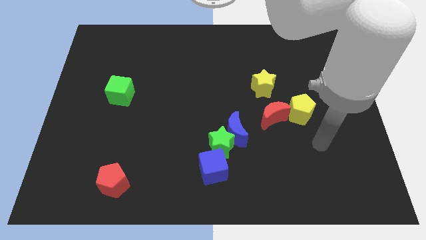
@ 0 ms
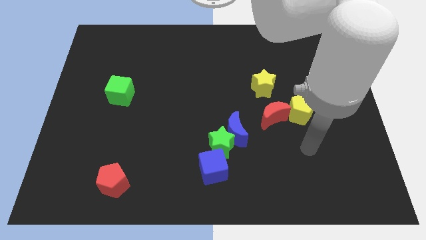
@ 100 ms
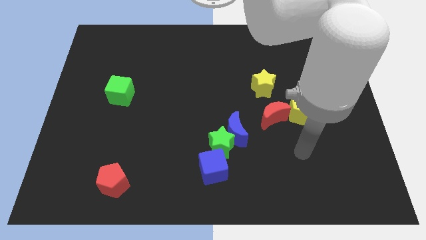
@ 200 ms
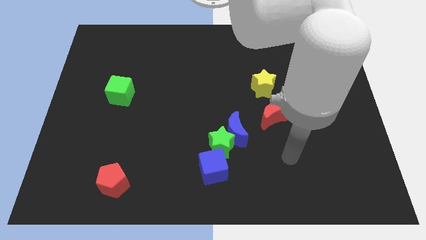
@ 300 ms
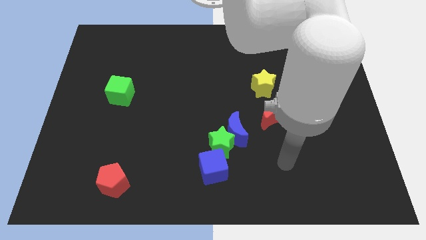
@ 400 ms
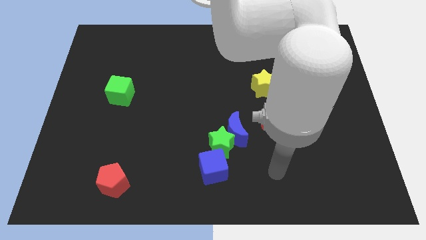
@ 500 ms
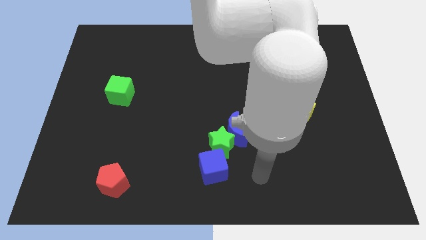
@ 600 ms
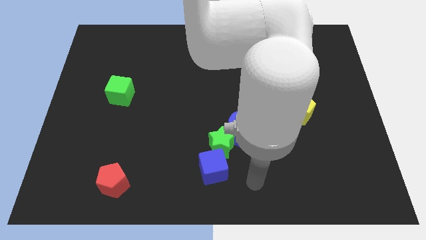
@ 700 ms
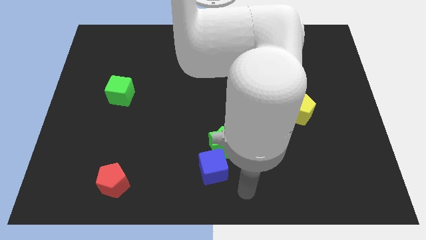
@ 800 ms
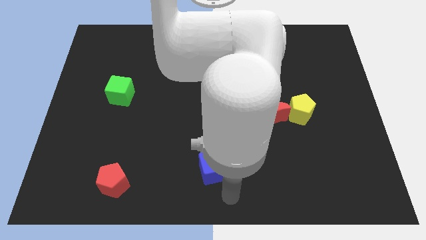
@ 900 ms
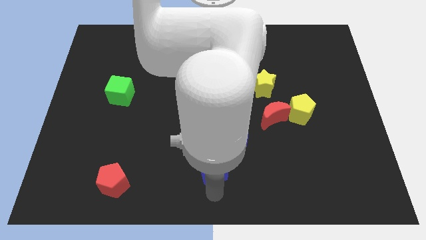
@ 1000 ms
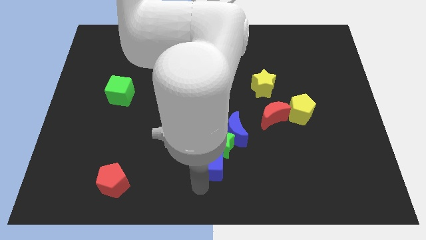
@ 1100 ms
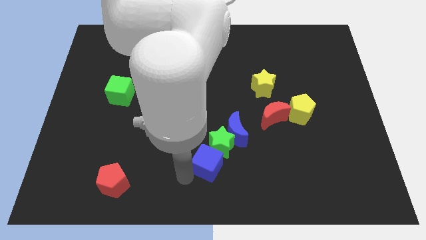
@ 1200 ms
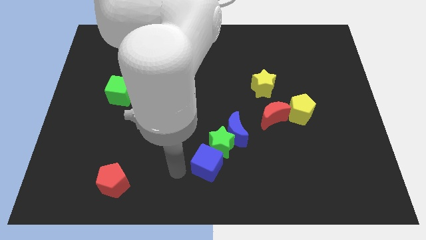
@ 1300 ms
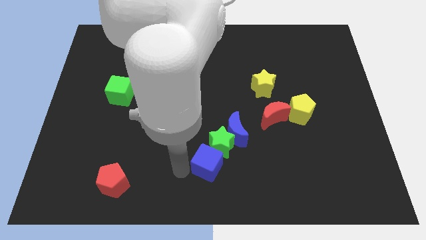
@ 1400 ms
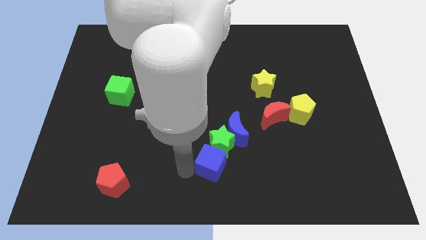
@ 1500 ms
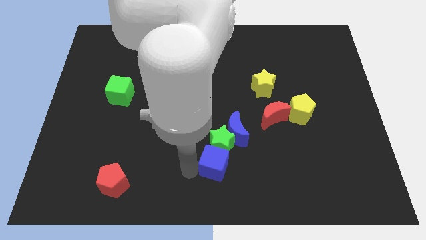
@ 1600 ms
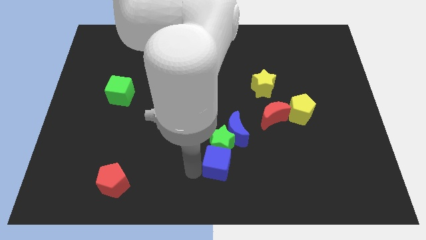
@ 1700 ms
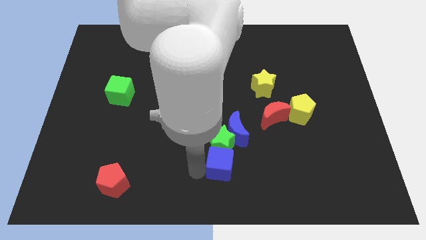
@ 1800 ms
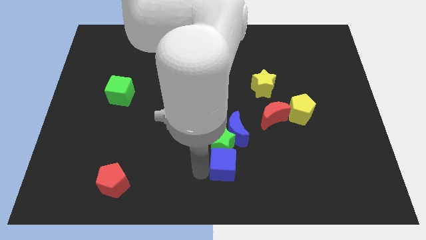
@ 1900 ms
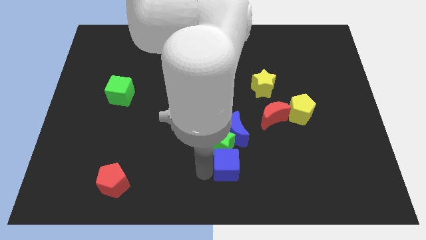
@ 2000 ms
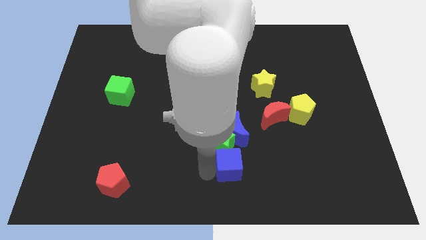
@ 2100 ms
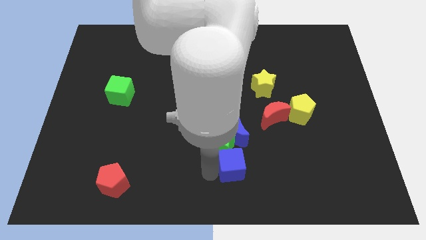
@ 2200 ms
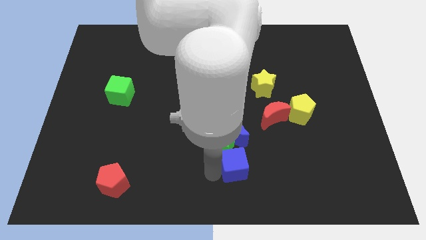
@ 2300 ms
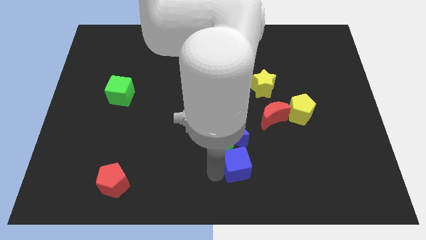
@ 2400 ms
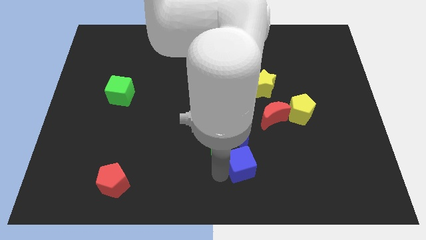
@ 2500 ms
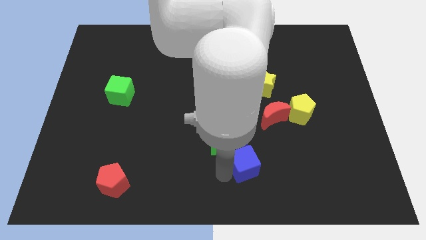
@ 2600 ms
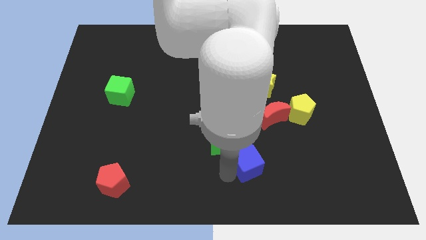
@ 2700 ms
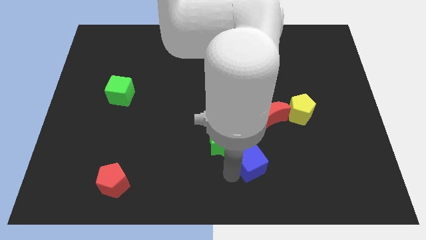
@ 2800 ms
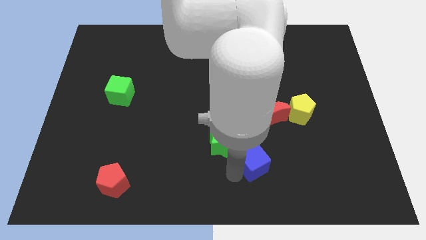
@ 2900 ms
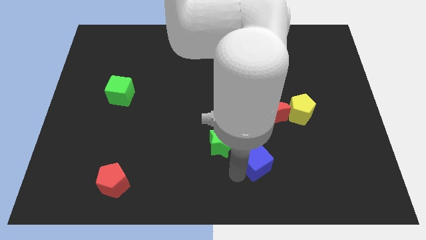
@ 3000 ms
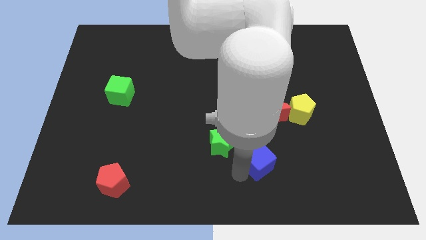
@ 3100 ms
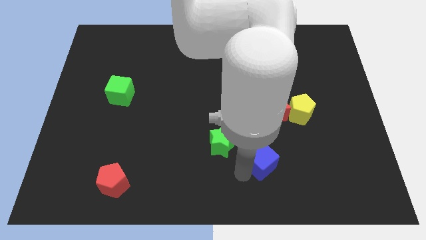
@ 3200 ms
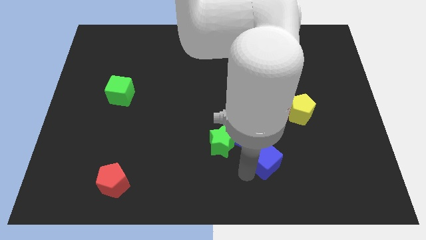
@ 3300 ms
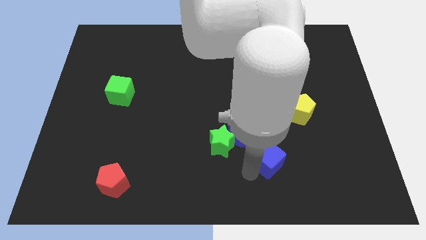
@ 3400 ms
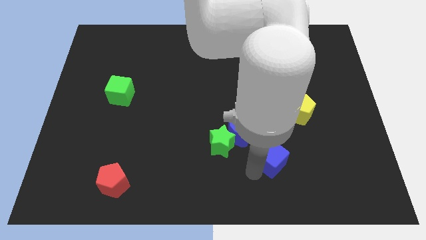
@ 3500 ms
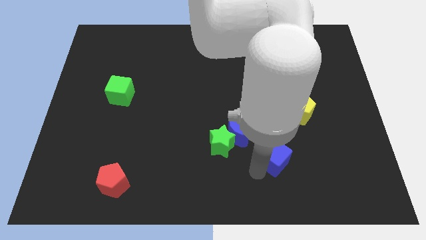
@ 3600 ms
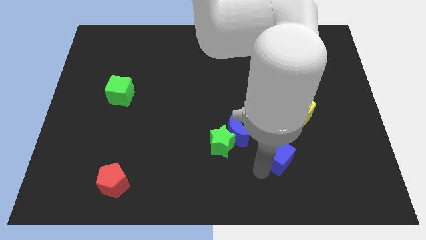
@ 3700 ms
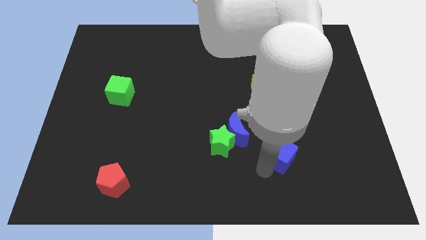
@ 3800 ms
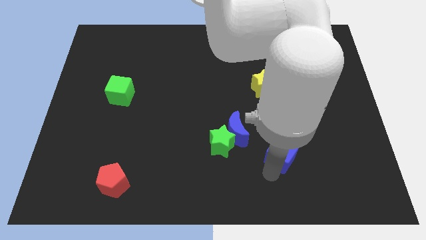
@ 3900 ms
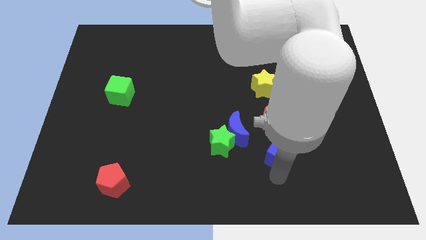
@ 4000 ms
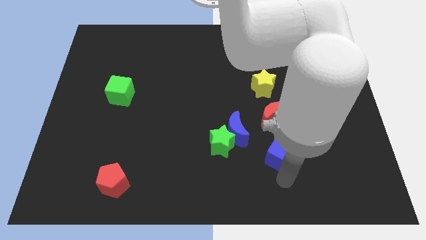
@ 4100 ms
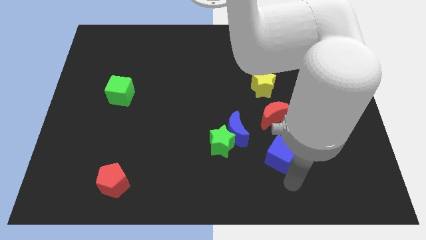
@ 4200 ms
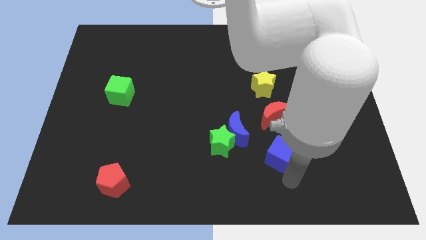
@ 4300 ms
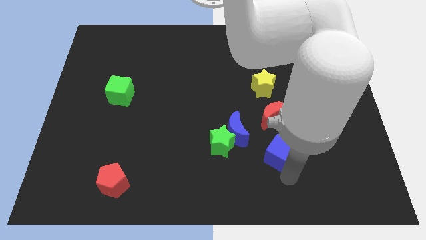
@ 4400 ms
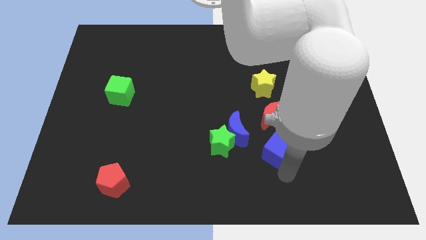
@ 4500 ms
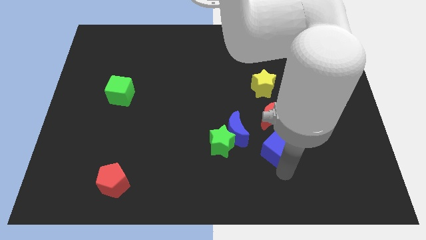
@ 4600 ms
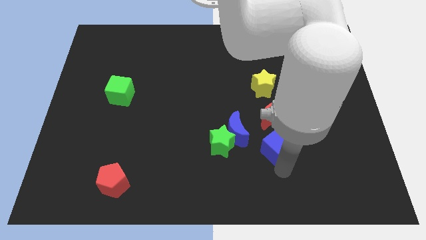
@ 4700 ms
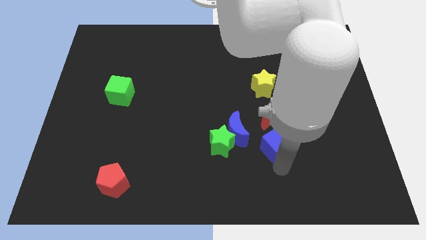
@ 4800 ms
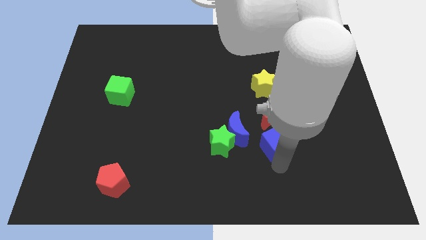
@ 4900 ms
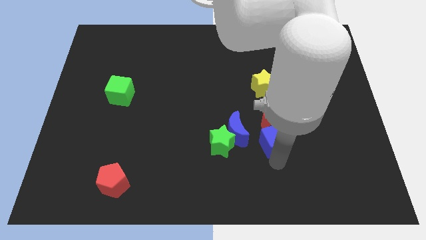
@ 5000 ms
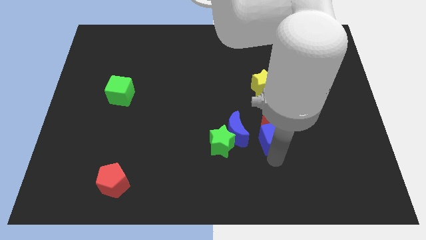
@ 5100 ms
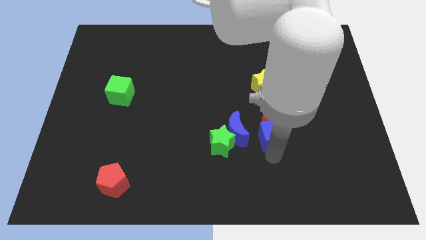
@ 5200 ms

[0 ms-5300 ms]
slide the blue cube next to the red moon

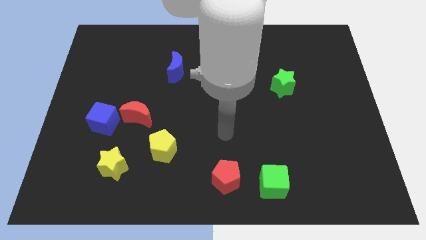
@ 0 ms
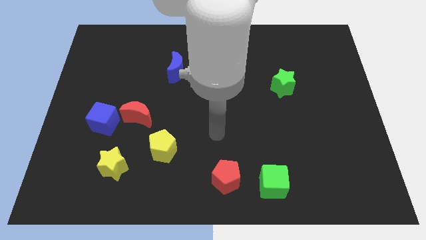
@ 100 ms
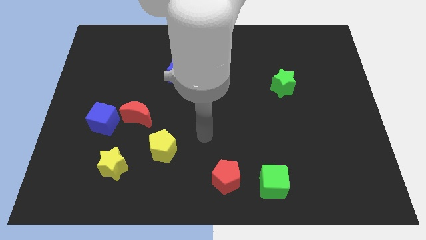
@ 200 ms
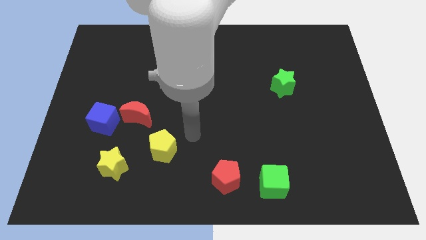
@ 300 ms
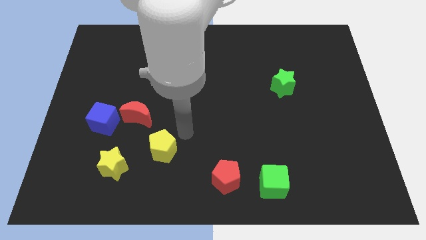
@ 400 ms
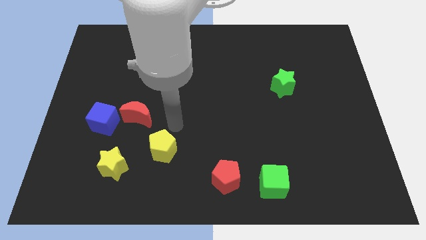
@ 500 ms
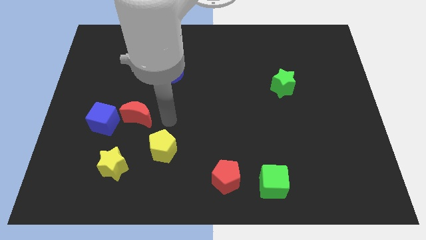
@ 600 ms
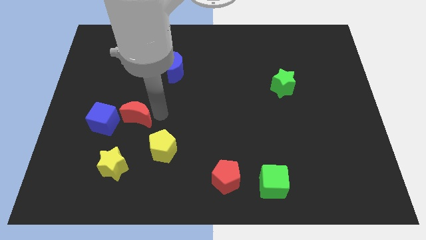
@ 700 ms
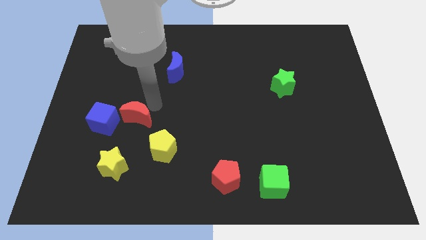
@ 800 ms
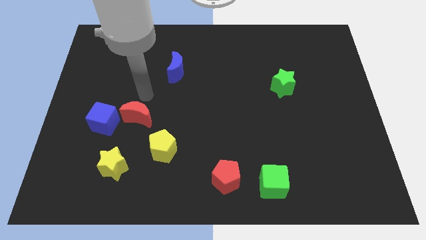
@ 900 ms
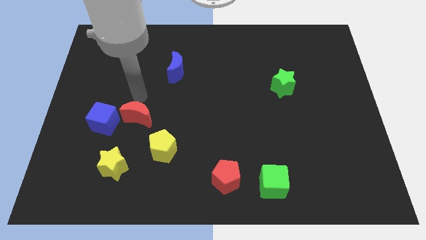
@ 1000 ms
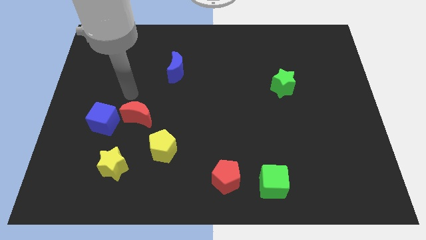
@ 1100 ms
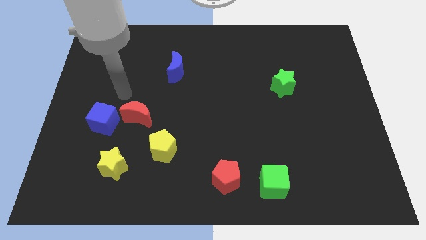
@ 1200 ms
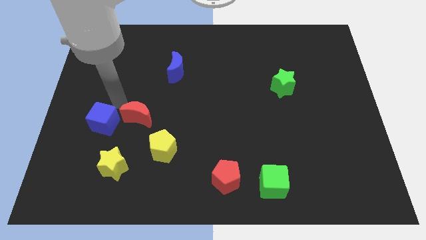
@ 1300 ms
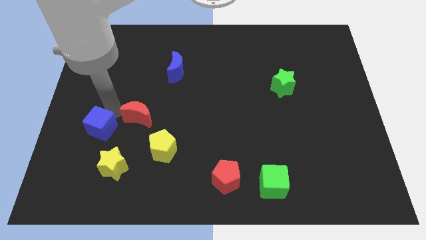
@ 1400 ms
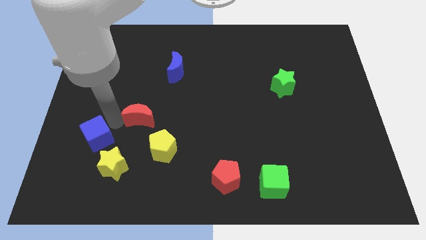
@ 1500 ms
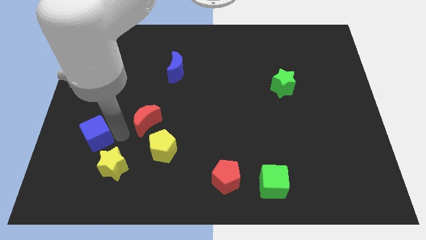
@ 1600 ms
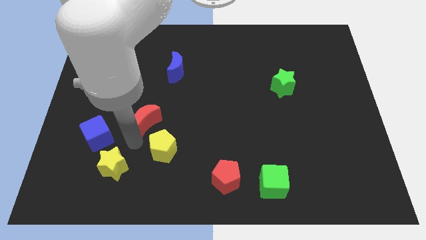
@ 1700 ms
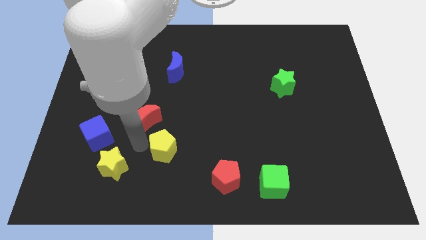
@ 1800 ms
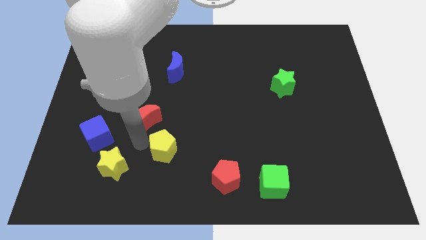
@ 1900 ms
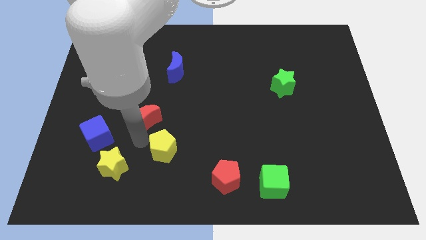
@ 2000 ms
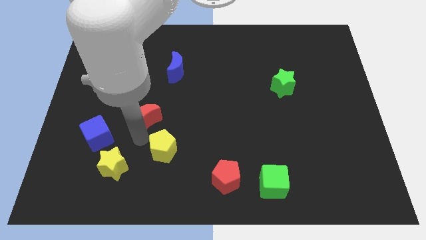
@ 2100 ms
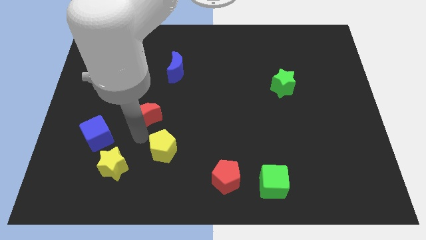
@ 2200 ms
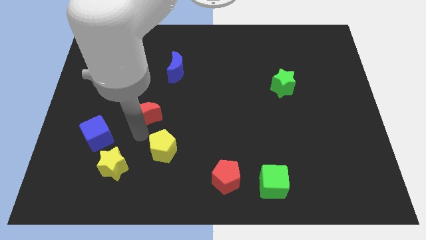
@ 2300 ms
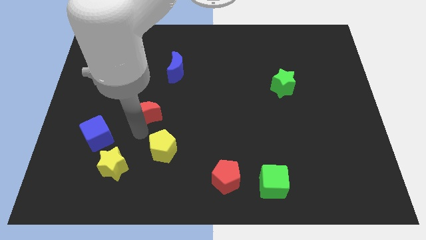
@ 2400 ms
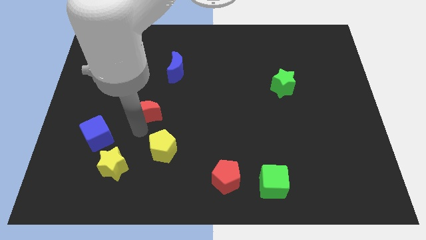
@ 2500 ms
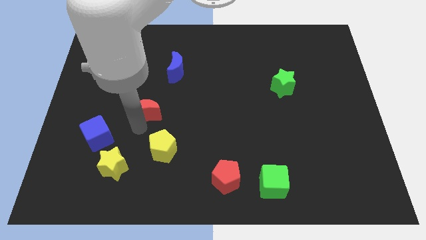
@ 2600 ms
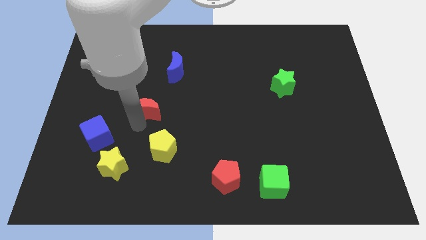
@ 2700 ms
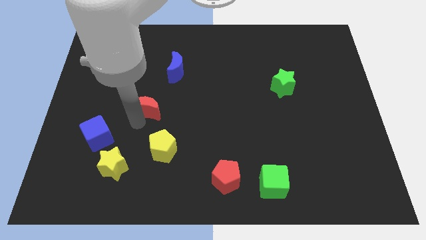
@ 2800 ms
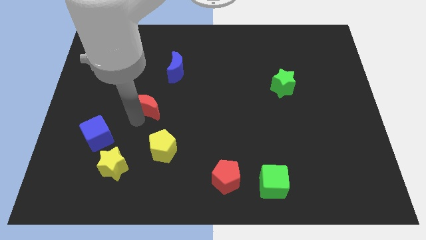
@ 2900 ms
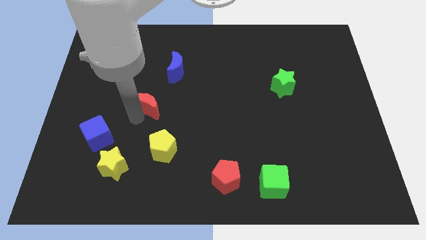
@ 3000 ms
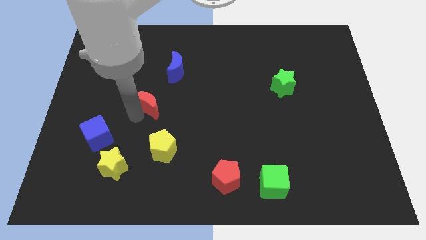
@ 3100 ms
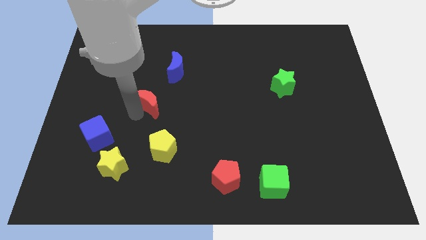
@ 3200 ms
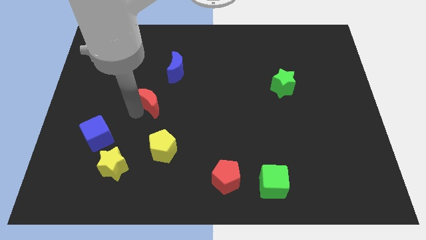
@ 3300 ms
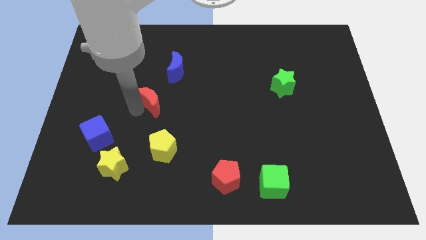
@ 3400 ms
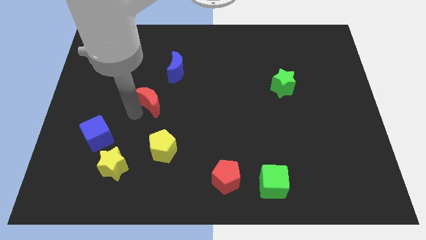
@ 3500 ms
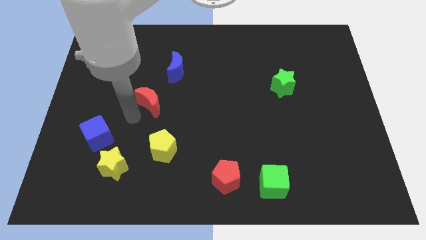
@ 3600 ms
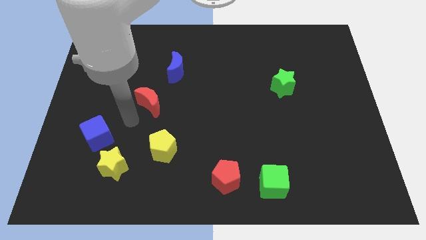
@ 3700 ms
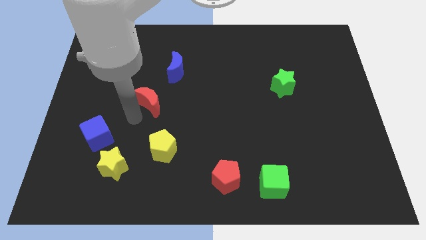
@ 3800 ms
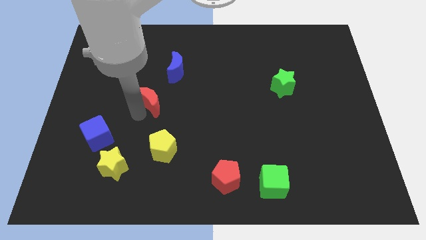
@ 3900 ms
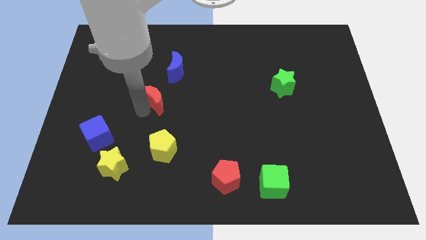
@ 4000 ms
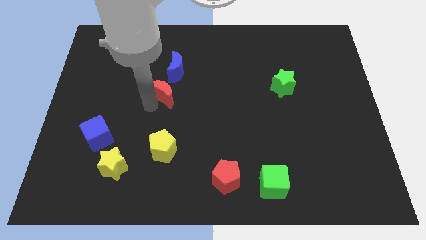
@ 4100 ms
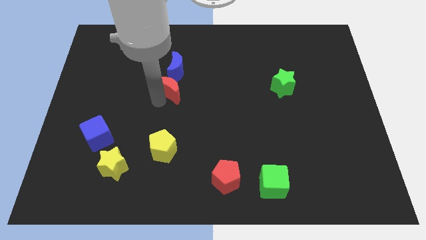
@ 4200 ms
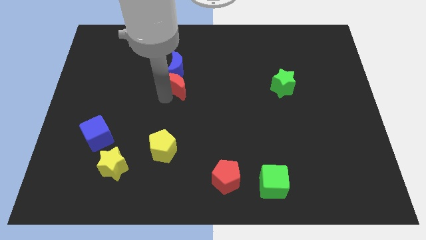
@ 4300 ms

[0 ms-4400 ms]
move the red moon close to the blue moon
